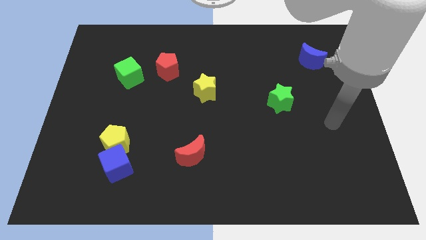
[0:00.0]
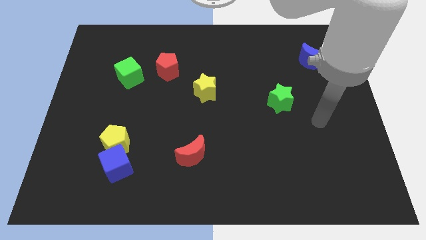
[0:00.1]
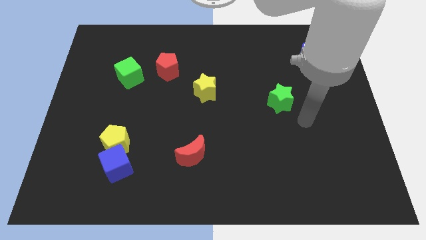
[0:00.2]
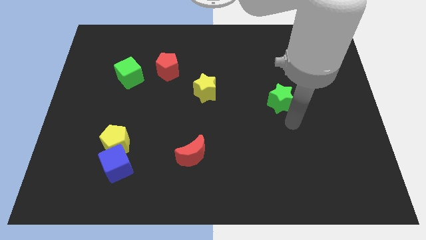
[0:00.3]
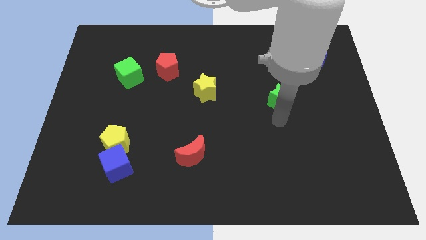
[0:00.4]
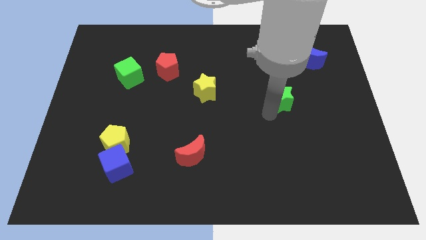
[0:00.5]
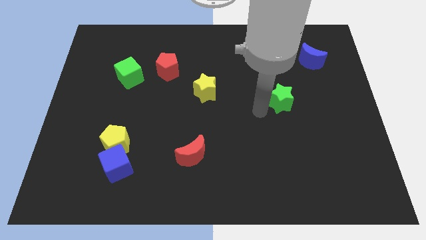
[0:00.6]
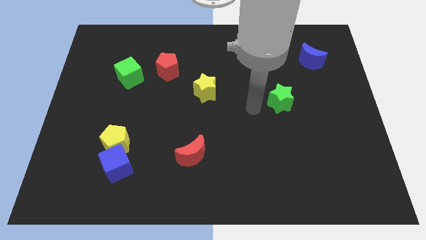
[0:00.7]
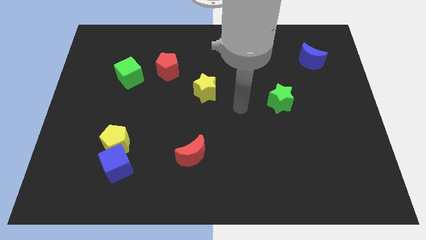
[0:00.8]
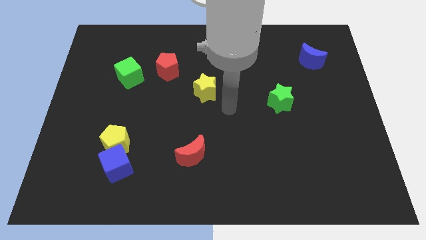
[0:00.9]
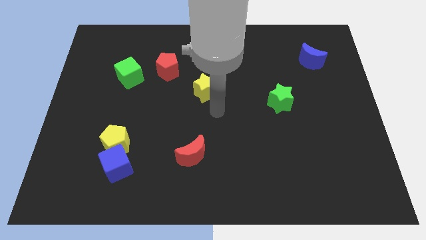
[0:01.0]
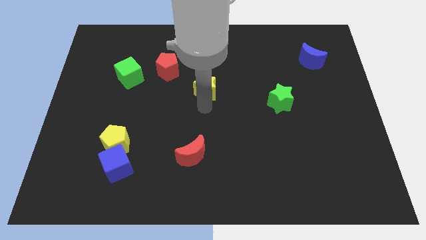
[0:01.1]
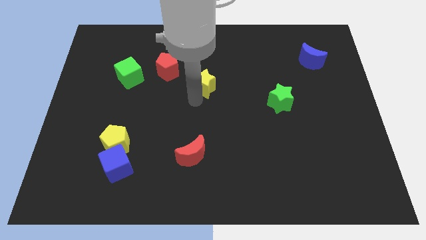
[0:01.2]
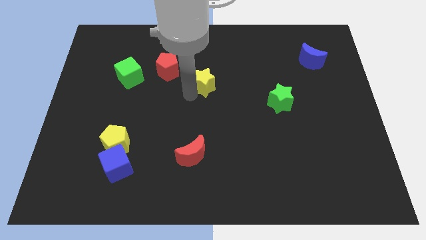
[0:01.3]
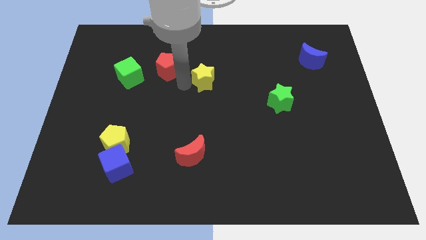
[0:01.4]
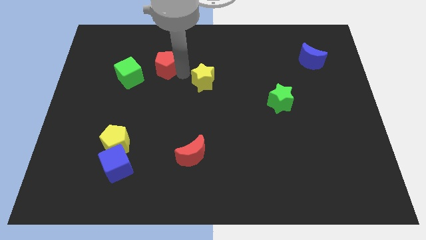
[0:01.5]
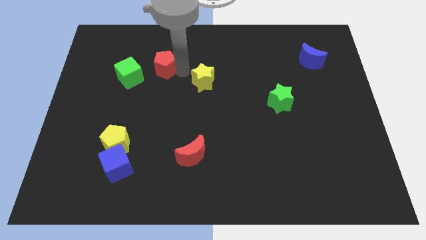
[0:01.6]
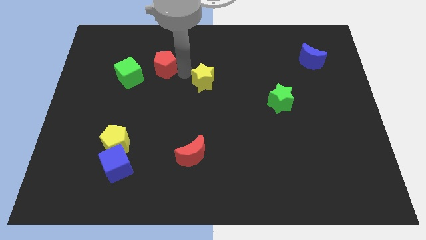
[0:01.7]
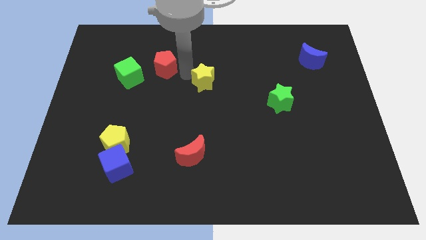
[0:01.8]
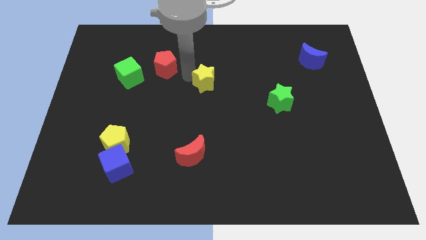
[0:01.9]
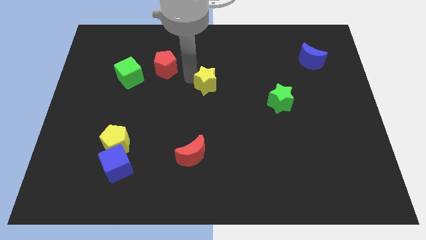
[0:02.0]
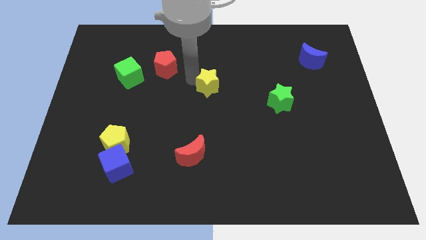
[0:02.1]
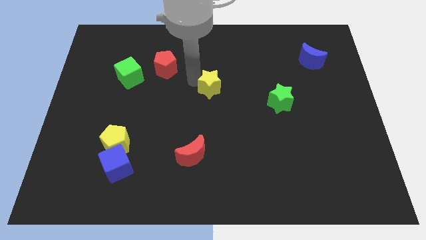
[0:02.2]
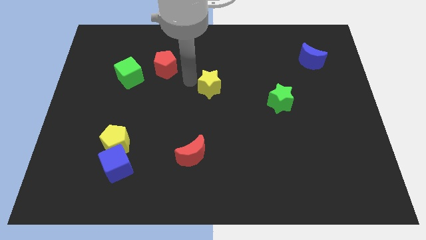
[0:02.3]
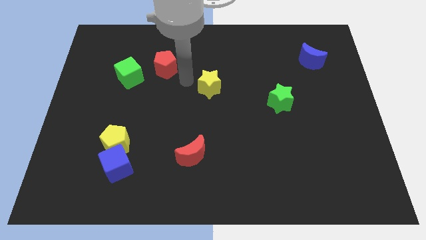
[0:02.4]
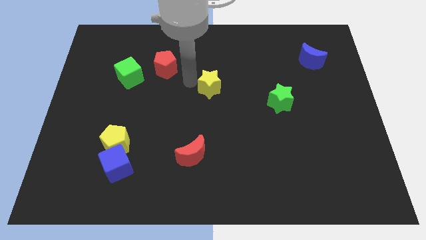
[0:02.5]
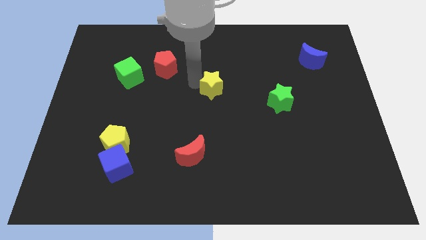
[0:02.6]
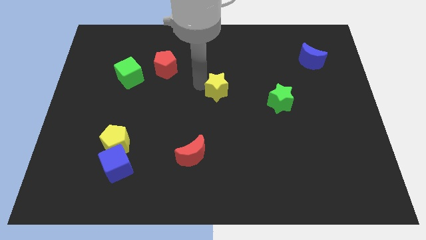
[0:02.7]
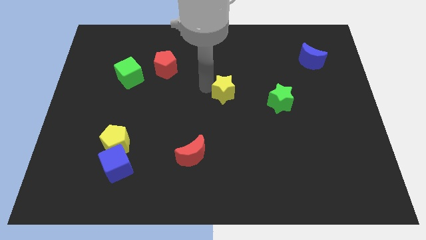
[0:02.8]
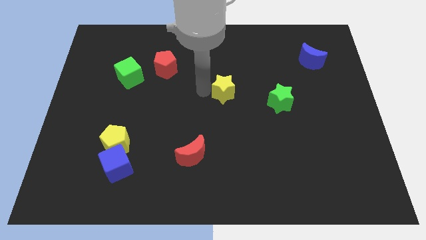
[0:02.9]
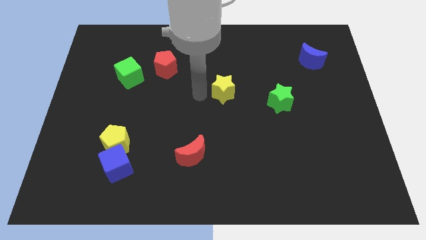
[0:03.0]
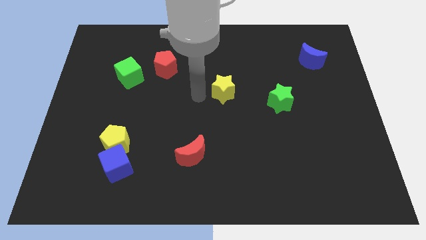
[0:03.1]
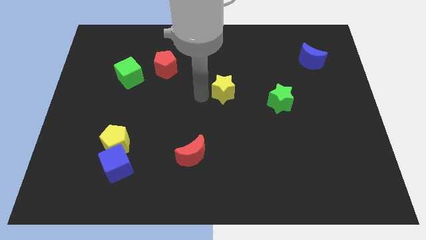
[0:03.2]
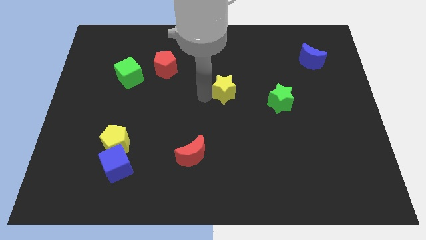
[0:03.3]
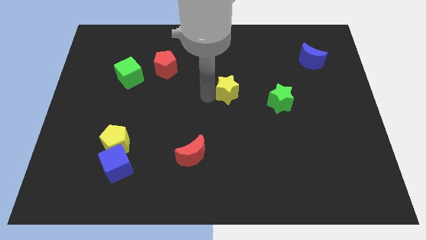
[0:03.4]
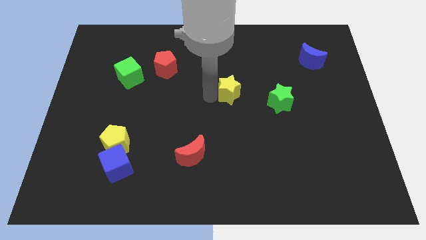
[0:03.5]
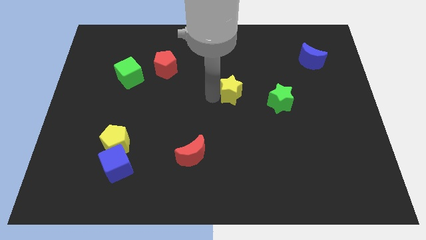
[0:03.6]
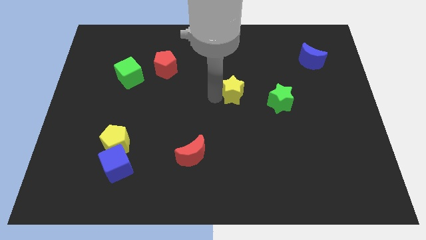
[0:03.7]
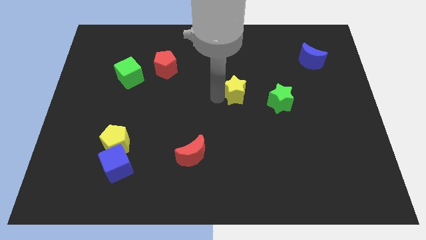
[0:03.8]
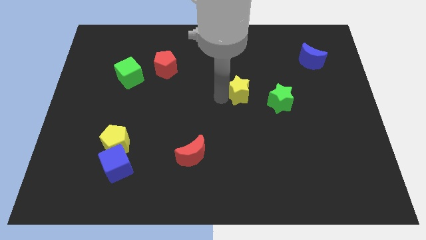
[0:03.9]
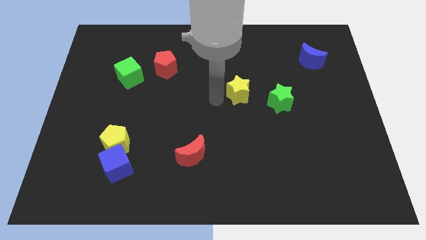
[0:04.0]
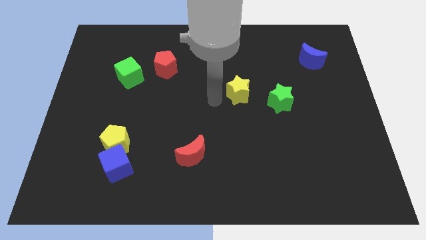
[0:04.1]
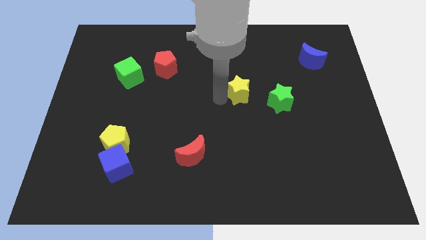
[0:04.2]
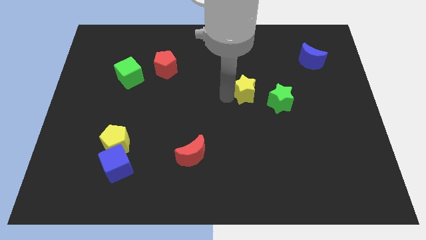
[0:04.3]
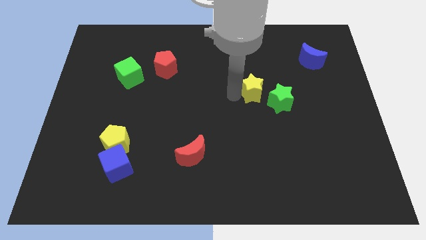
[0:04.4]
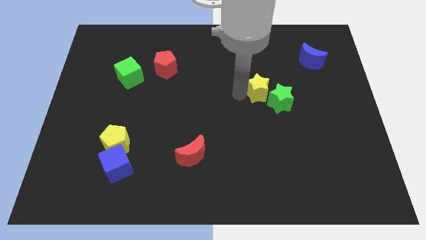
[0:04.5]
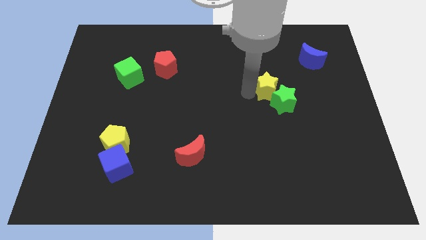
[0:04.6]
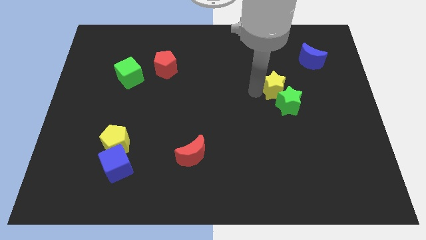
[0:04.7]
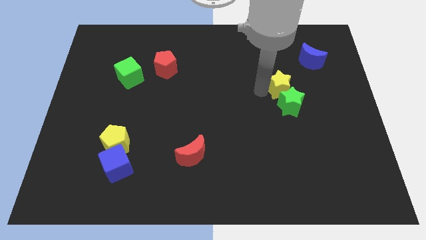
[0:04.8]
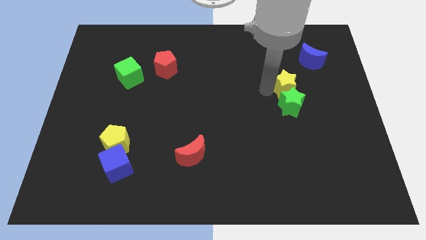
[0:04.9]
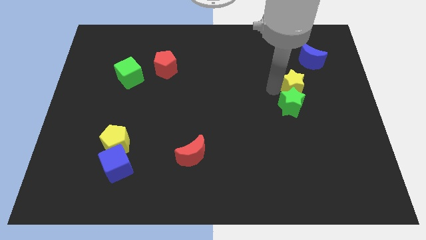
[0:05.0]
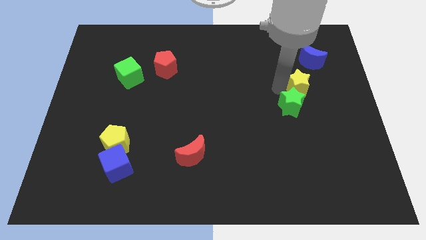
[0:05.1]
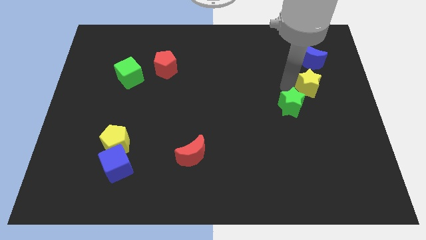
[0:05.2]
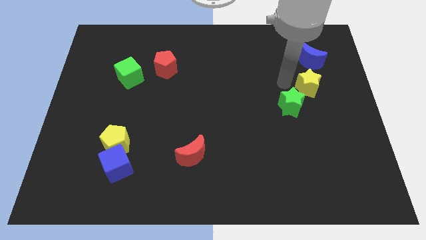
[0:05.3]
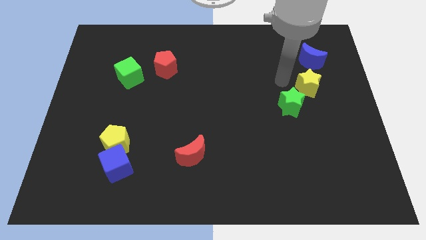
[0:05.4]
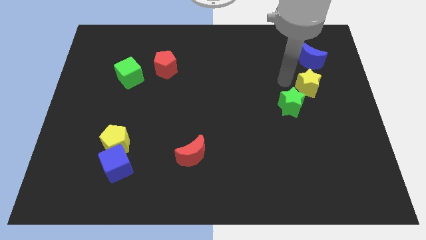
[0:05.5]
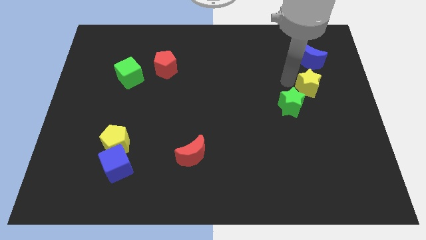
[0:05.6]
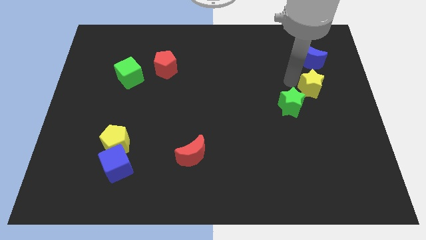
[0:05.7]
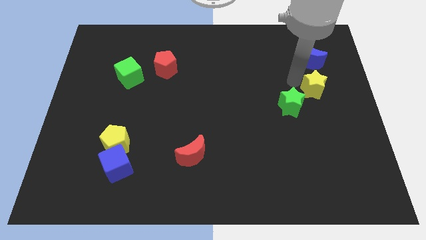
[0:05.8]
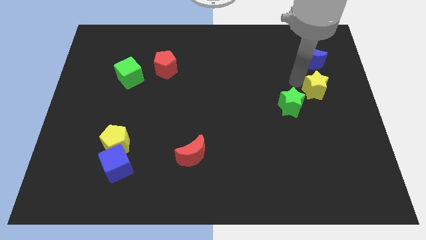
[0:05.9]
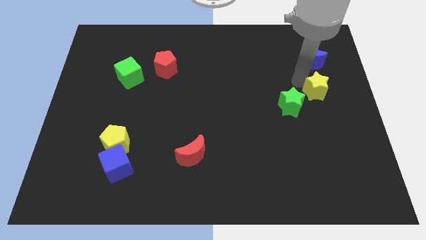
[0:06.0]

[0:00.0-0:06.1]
put the yellow star to the right side

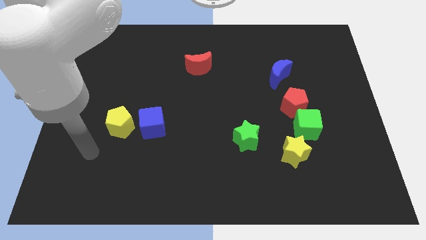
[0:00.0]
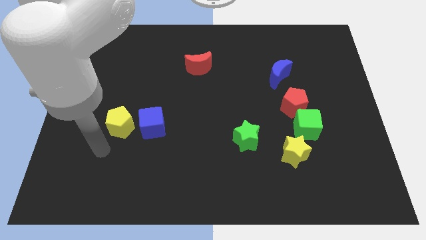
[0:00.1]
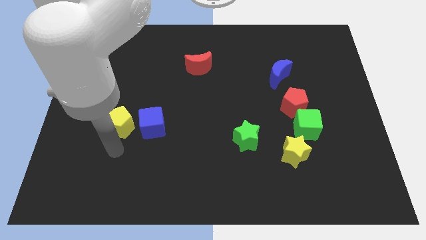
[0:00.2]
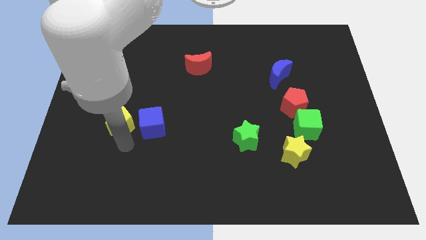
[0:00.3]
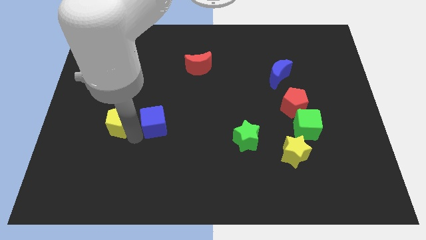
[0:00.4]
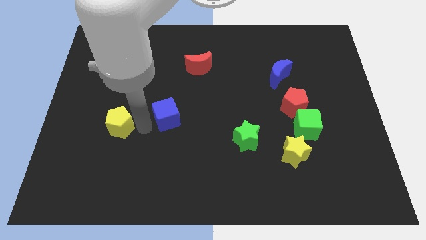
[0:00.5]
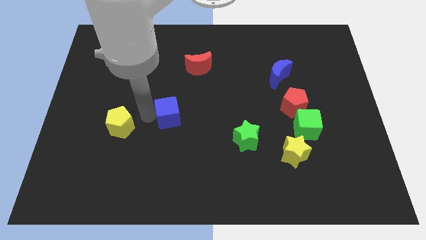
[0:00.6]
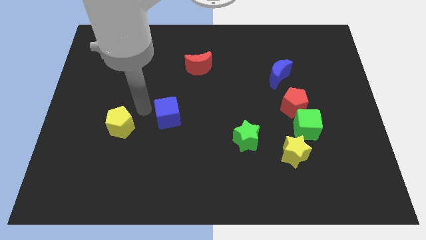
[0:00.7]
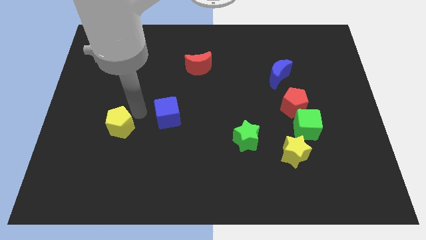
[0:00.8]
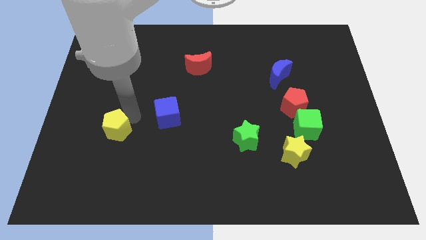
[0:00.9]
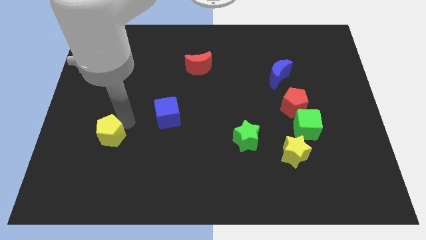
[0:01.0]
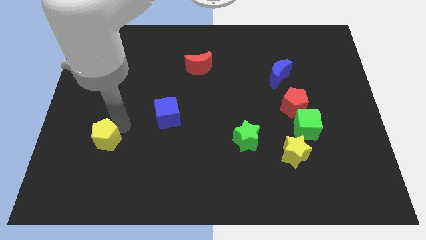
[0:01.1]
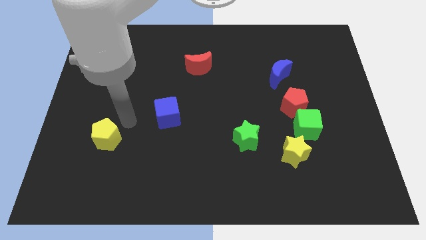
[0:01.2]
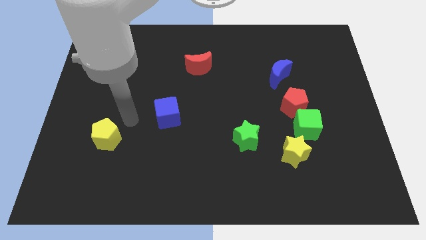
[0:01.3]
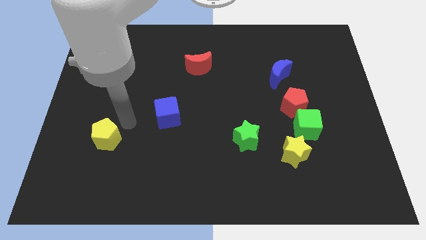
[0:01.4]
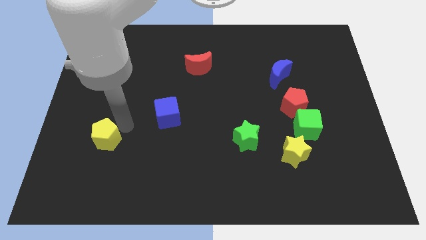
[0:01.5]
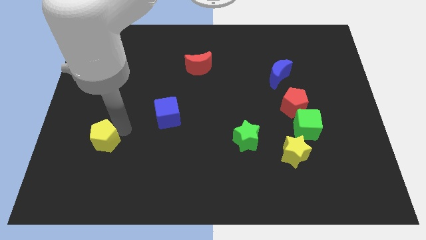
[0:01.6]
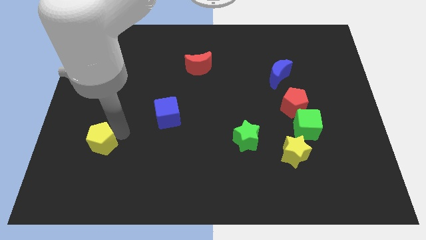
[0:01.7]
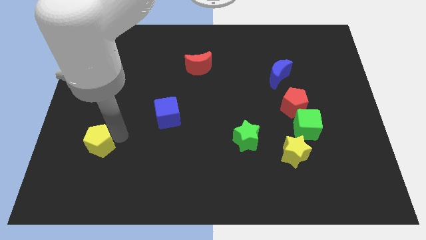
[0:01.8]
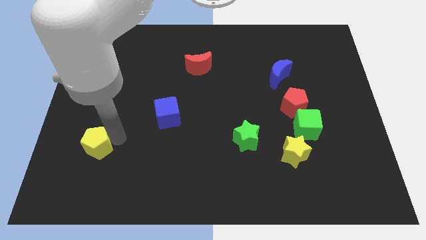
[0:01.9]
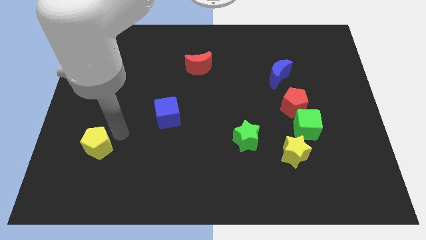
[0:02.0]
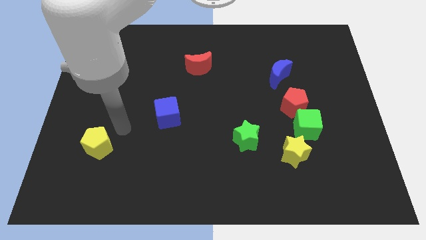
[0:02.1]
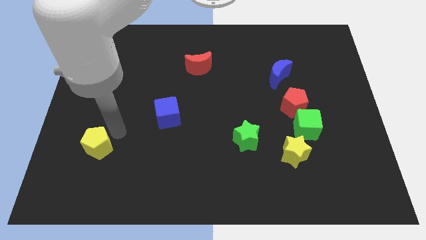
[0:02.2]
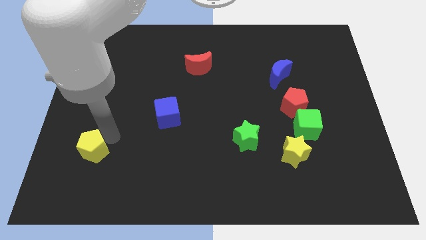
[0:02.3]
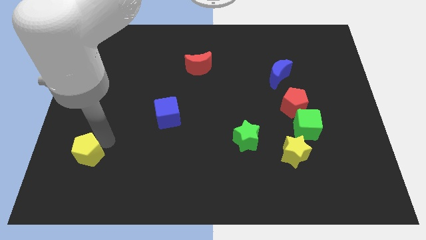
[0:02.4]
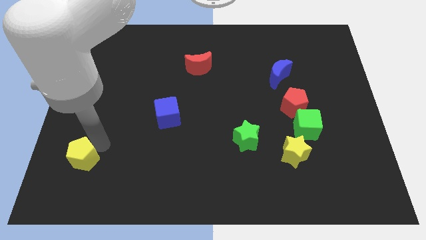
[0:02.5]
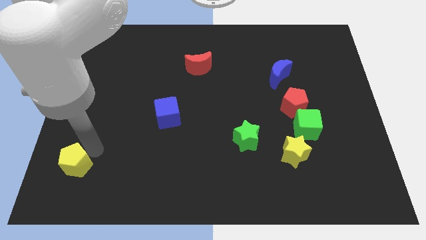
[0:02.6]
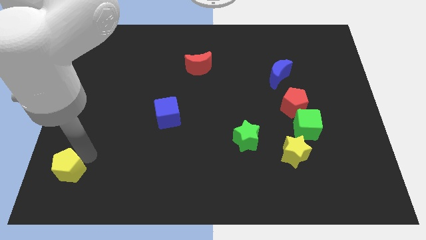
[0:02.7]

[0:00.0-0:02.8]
slide the yellow pentagon to the bottom left of the board
